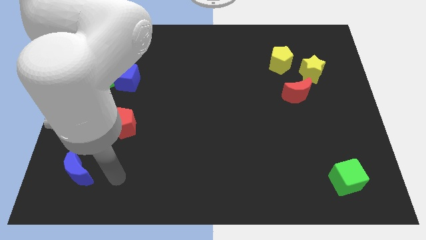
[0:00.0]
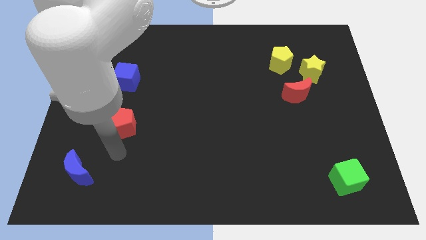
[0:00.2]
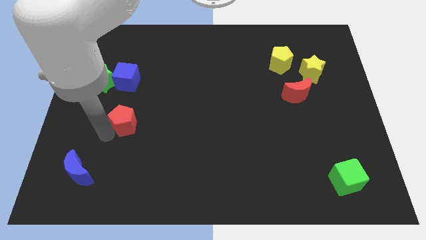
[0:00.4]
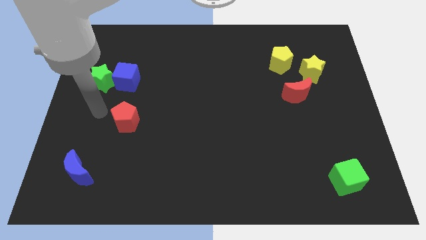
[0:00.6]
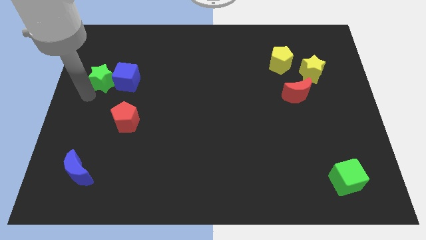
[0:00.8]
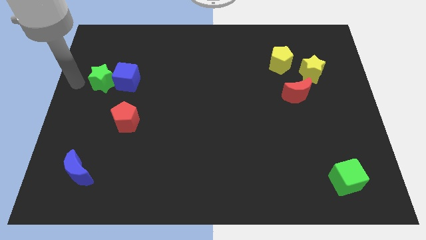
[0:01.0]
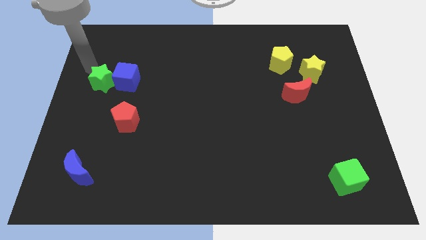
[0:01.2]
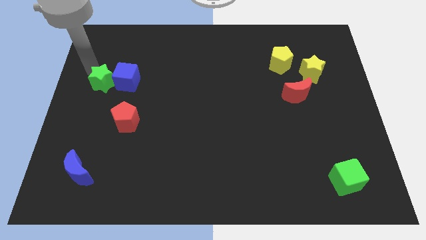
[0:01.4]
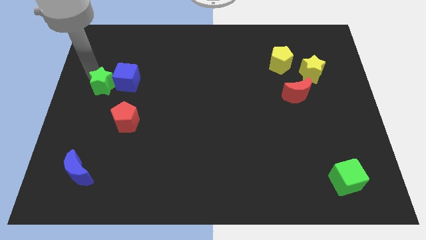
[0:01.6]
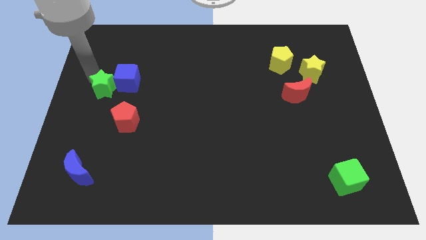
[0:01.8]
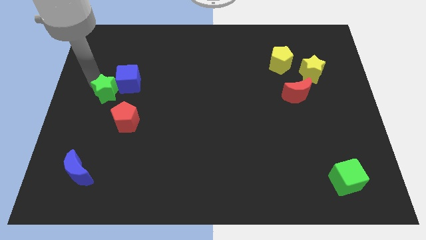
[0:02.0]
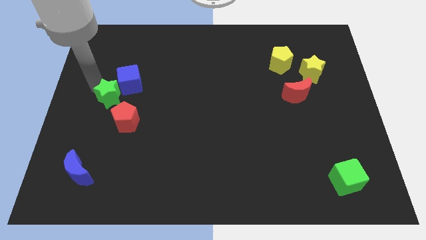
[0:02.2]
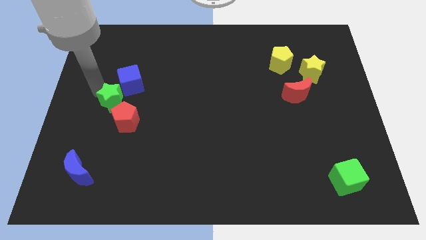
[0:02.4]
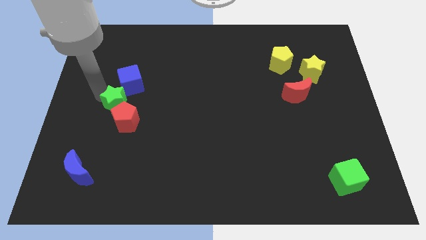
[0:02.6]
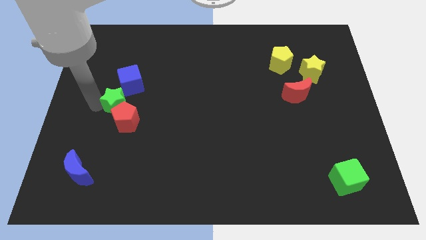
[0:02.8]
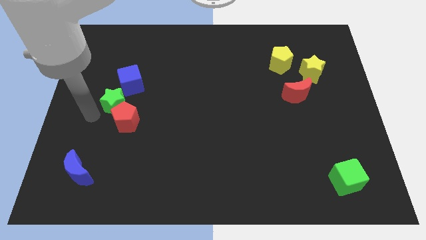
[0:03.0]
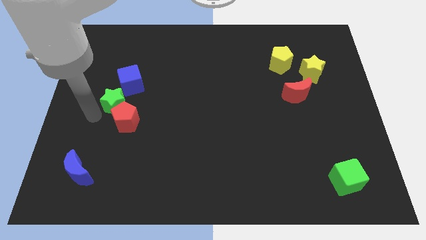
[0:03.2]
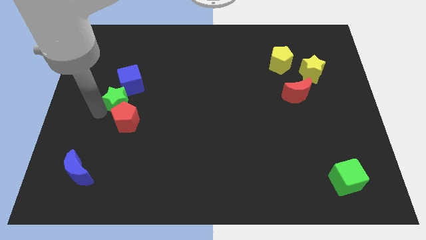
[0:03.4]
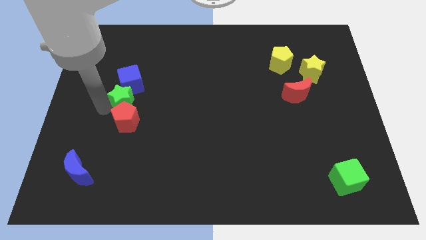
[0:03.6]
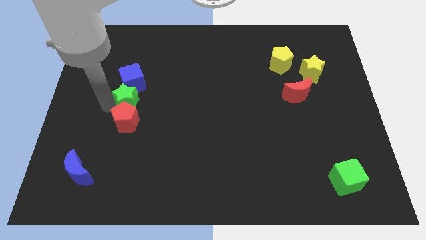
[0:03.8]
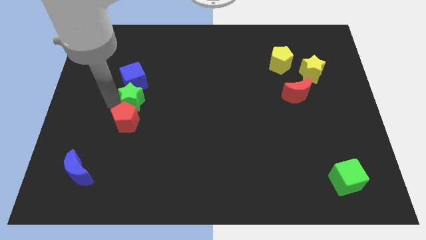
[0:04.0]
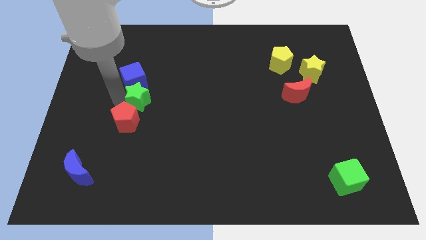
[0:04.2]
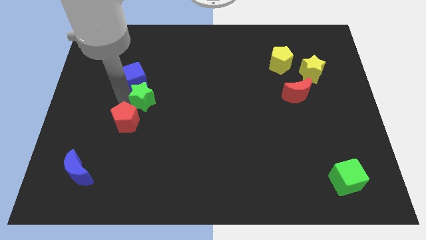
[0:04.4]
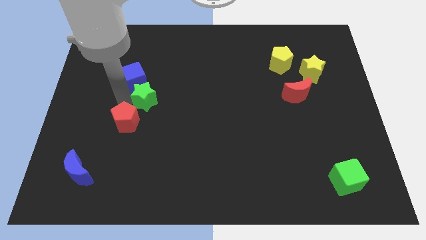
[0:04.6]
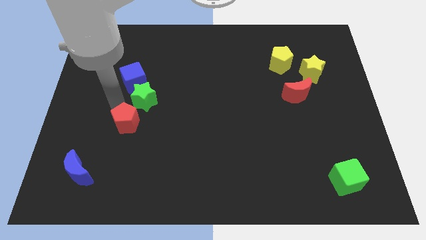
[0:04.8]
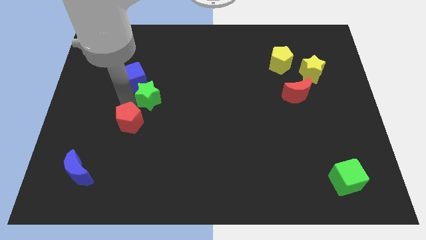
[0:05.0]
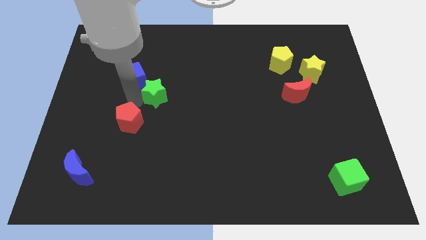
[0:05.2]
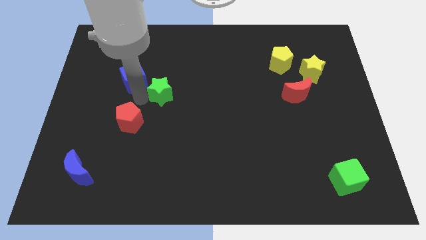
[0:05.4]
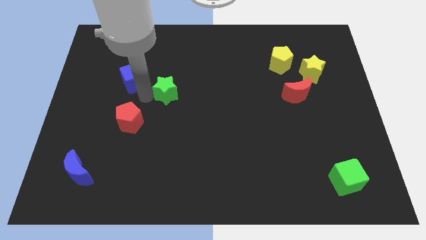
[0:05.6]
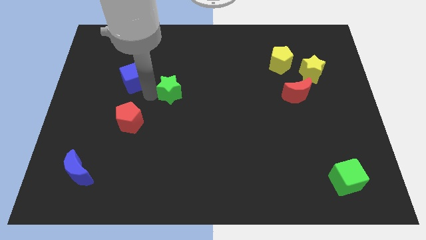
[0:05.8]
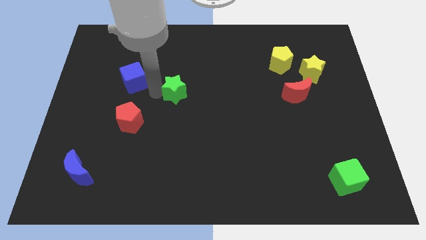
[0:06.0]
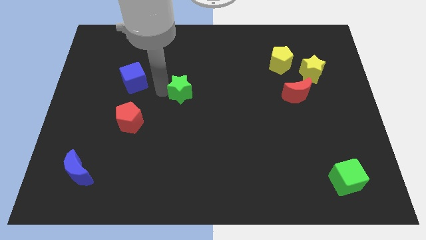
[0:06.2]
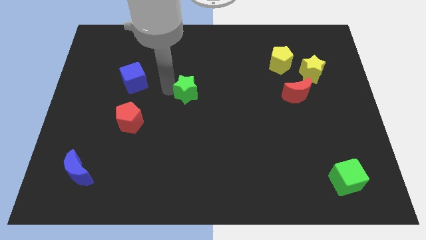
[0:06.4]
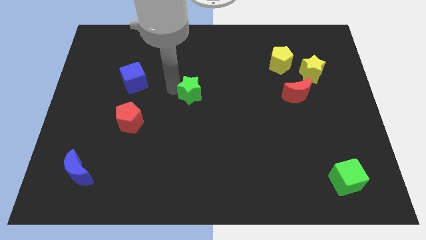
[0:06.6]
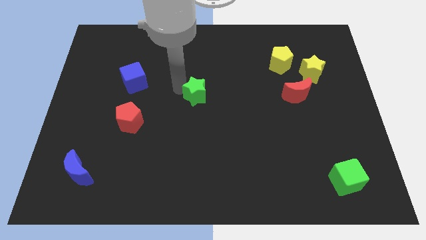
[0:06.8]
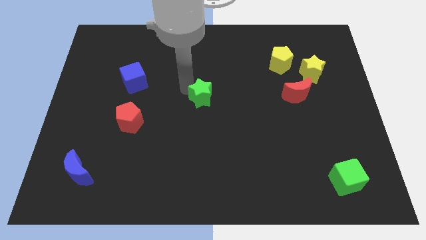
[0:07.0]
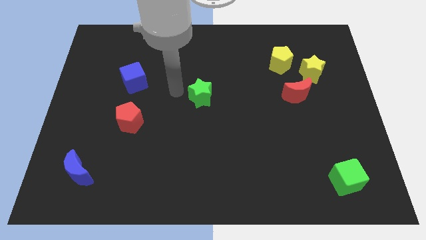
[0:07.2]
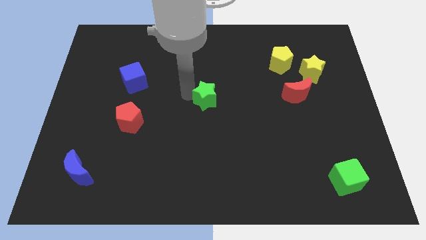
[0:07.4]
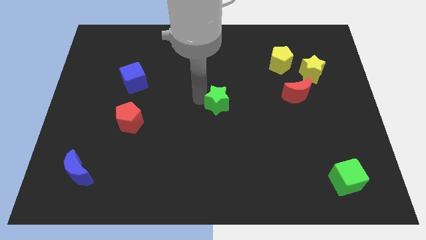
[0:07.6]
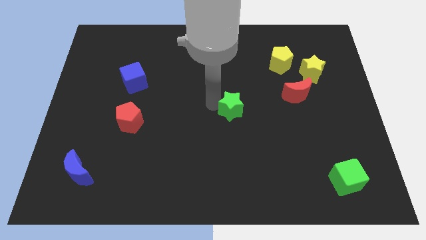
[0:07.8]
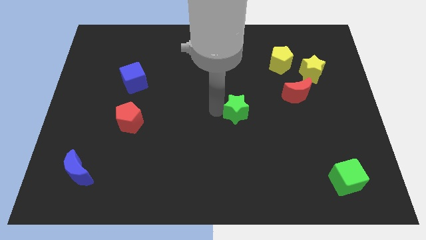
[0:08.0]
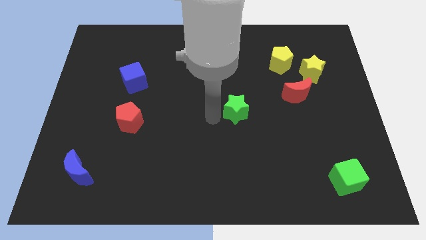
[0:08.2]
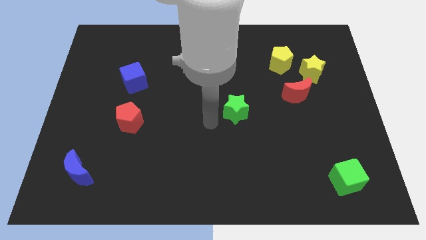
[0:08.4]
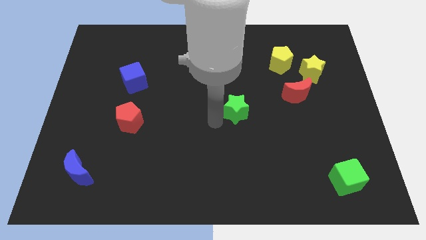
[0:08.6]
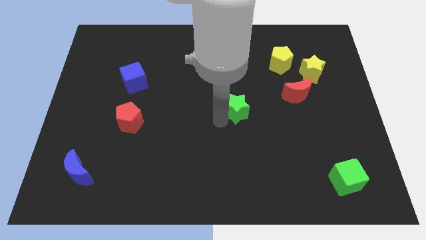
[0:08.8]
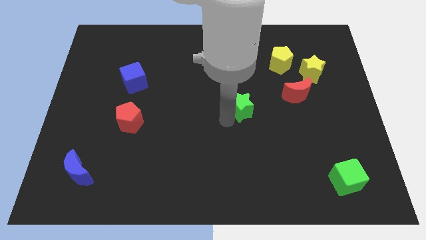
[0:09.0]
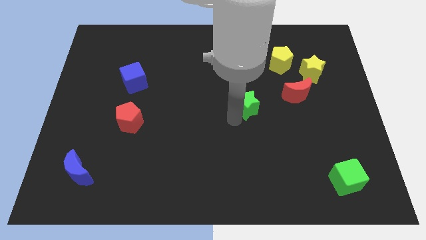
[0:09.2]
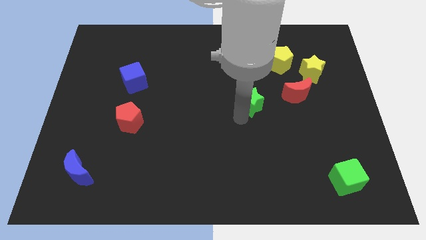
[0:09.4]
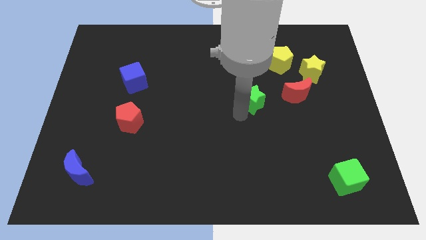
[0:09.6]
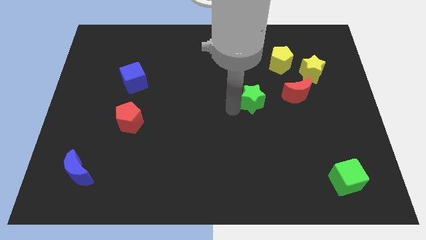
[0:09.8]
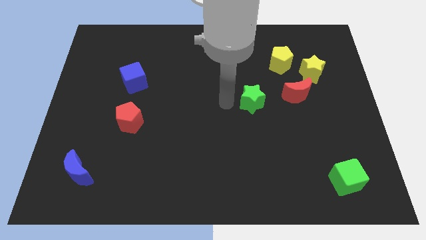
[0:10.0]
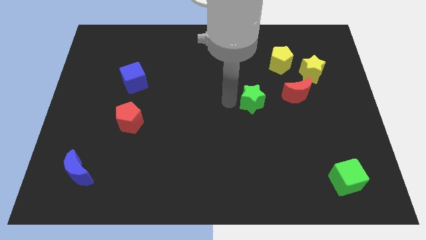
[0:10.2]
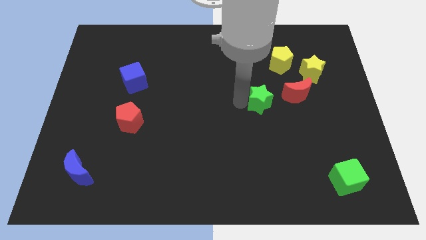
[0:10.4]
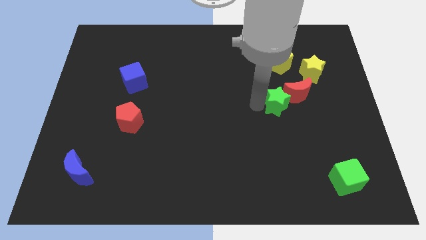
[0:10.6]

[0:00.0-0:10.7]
move the green star to the red moon

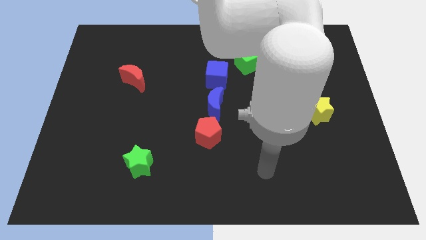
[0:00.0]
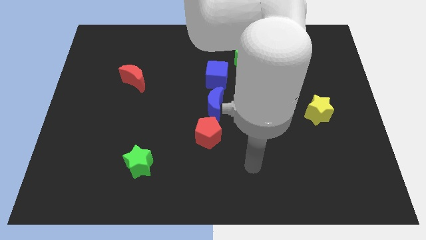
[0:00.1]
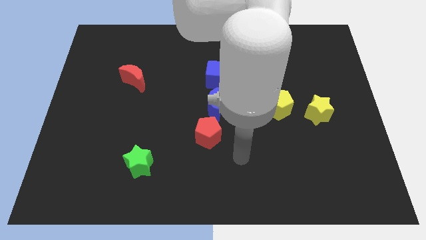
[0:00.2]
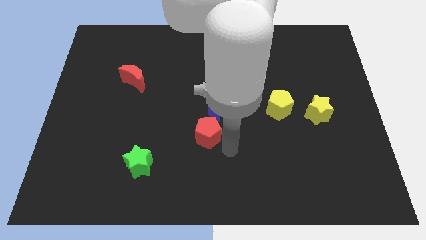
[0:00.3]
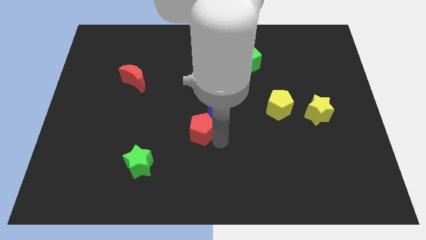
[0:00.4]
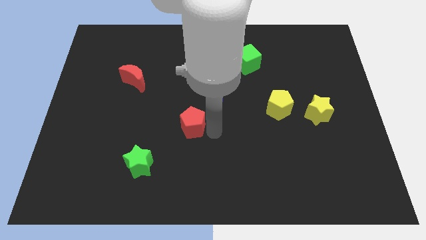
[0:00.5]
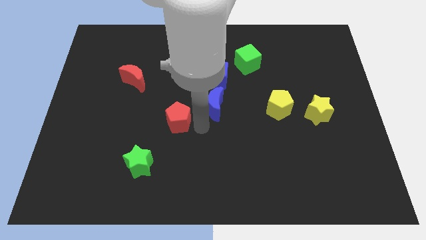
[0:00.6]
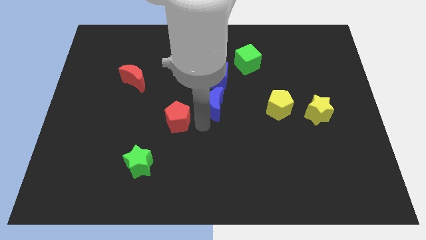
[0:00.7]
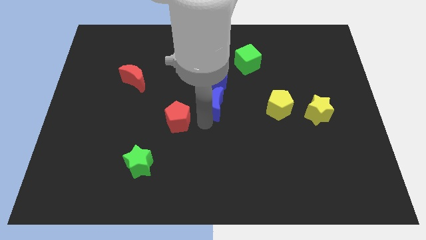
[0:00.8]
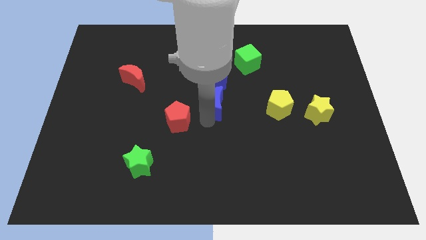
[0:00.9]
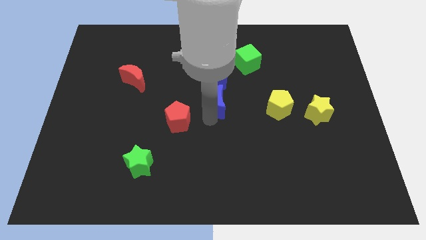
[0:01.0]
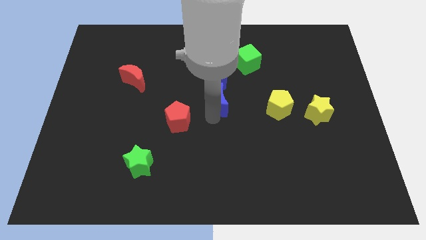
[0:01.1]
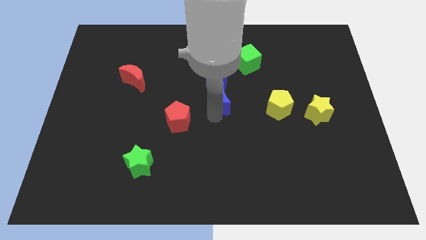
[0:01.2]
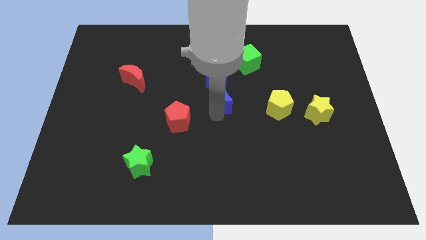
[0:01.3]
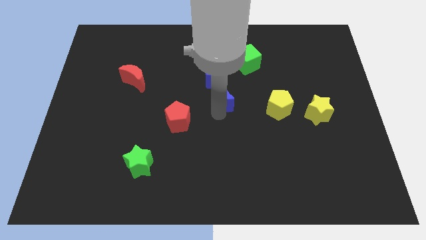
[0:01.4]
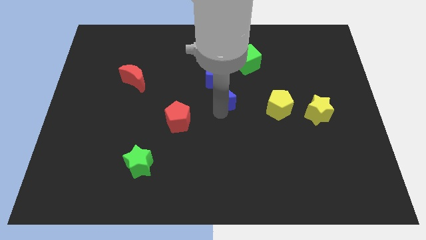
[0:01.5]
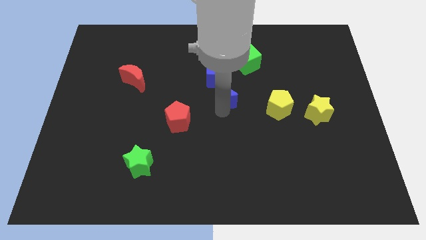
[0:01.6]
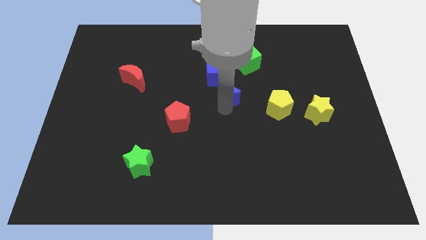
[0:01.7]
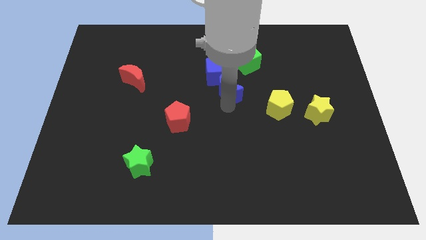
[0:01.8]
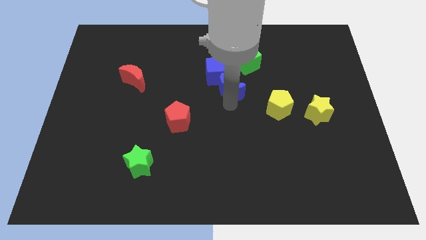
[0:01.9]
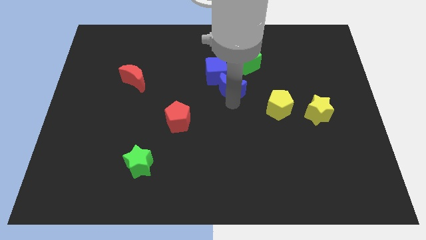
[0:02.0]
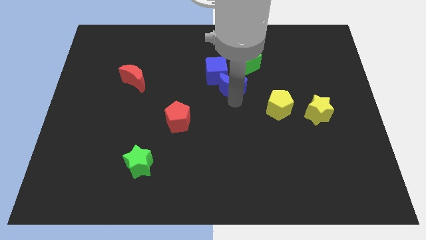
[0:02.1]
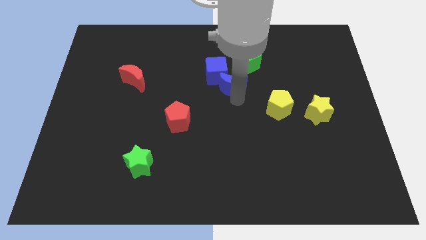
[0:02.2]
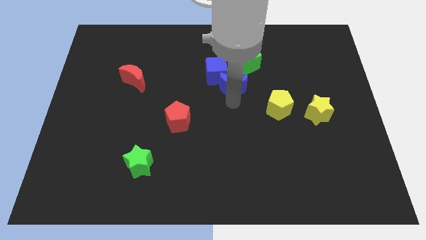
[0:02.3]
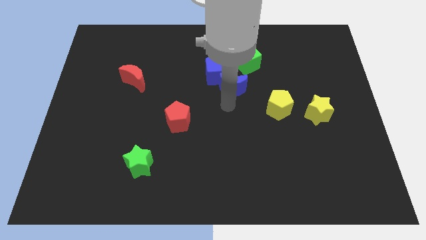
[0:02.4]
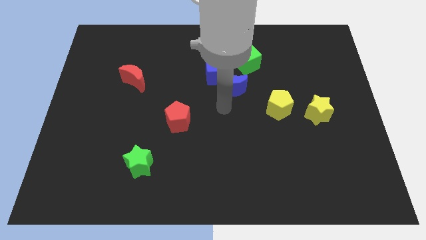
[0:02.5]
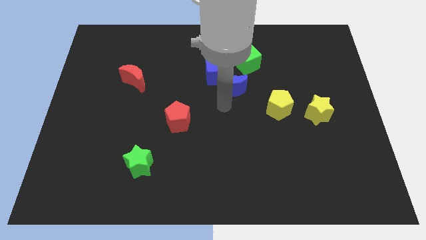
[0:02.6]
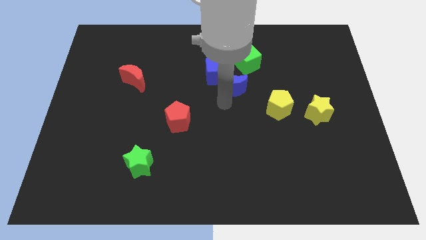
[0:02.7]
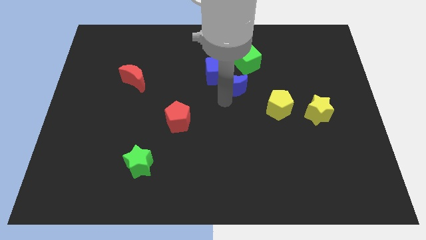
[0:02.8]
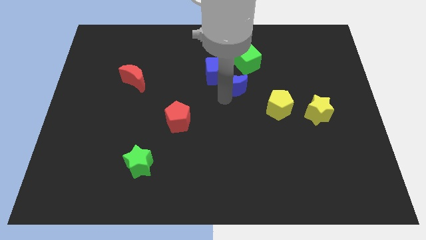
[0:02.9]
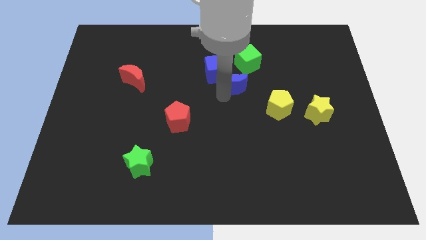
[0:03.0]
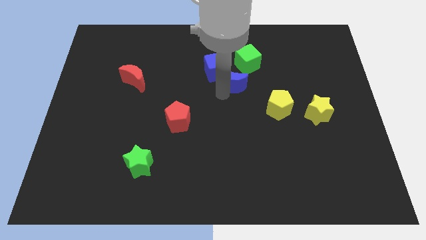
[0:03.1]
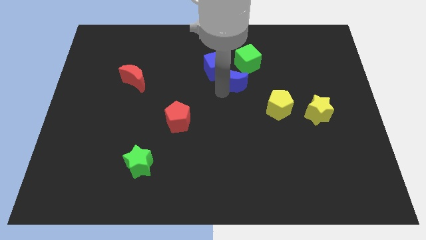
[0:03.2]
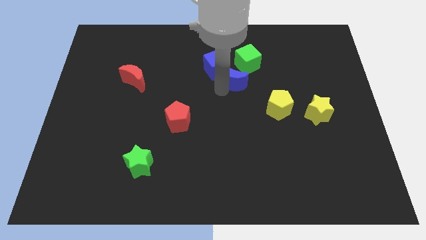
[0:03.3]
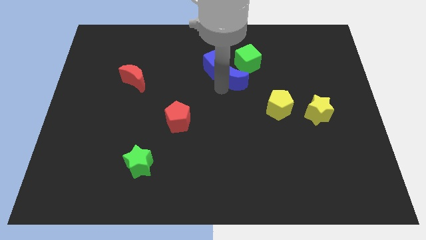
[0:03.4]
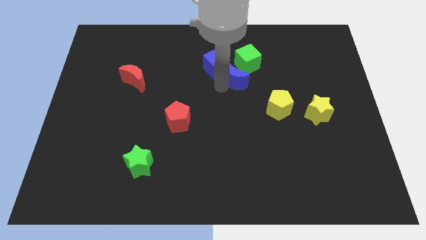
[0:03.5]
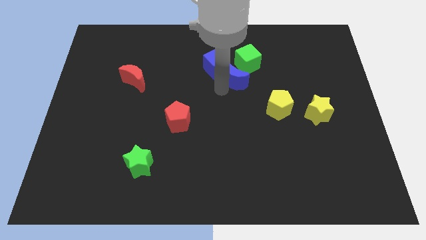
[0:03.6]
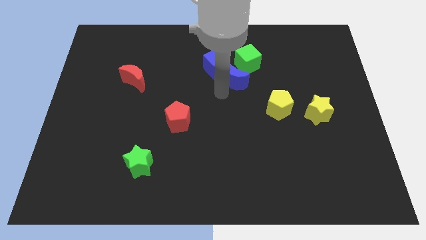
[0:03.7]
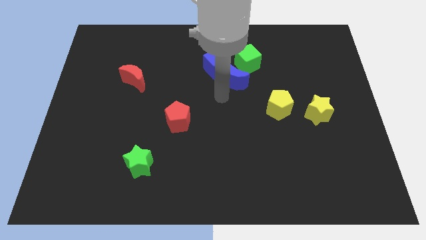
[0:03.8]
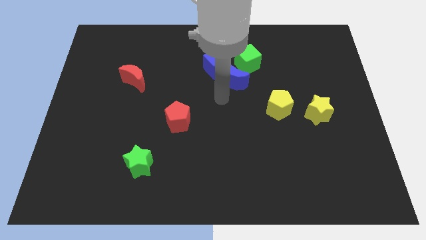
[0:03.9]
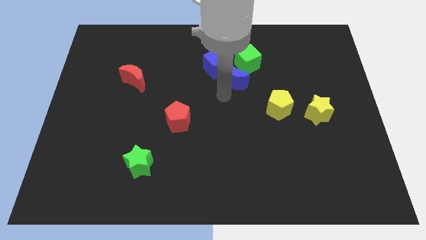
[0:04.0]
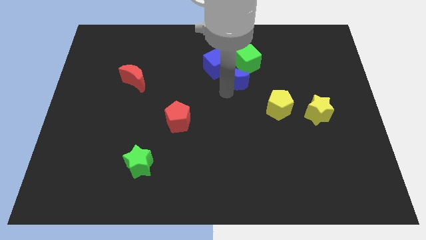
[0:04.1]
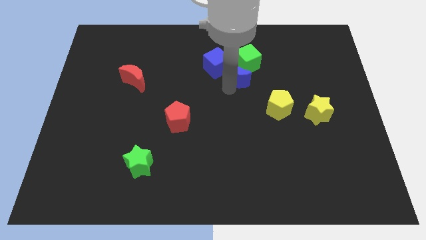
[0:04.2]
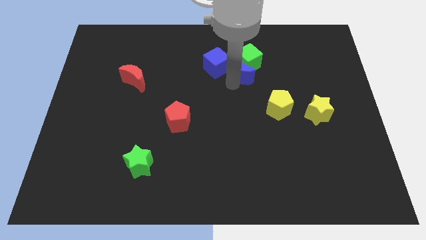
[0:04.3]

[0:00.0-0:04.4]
push the blue moon to the green cube
